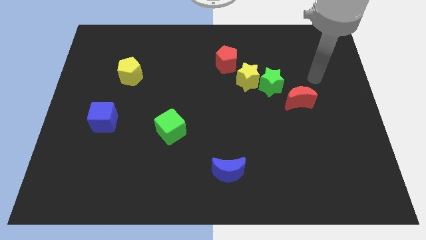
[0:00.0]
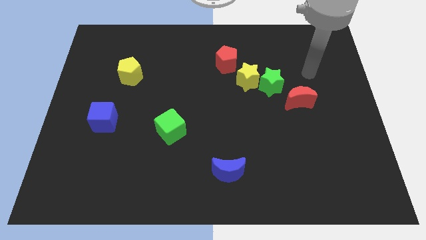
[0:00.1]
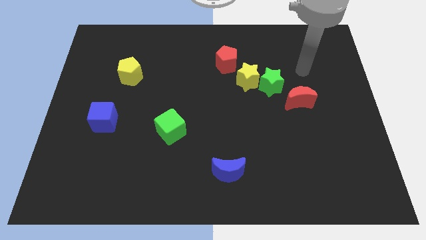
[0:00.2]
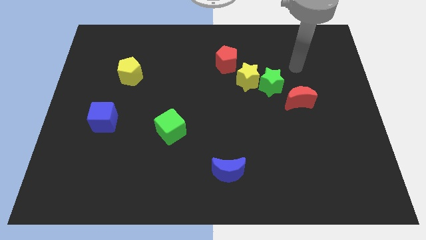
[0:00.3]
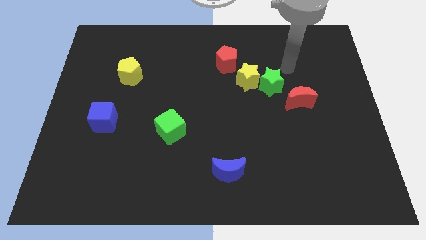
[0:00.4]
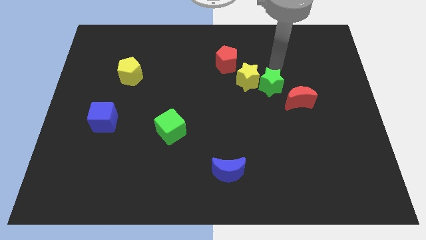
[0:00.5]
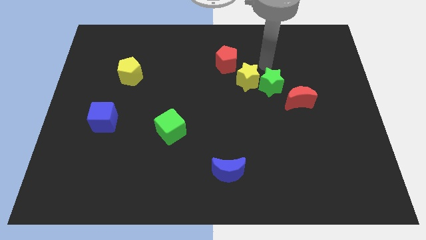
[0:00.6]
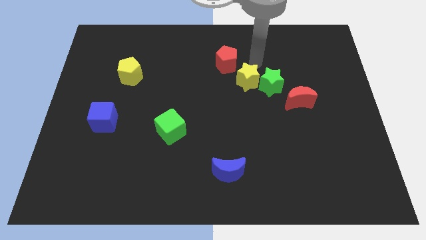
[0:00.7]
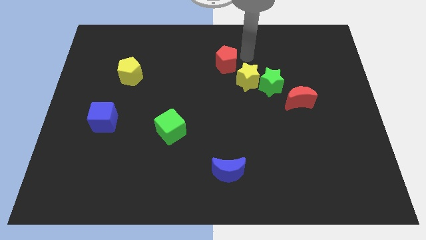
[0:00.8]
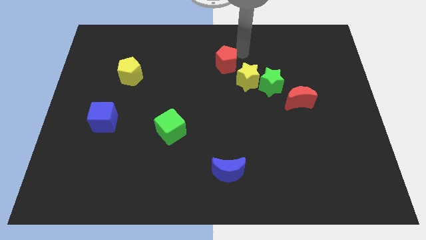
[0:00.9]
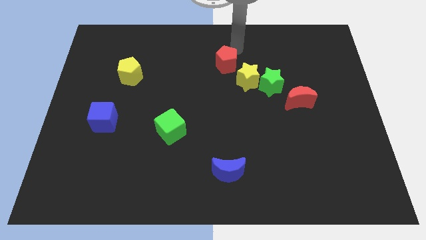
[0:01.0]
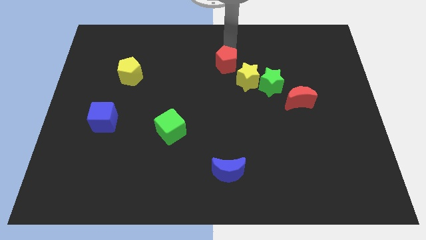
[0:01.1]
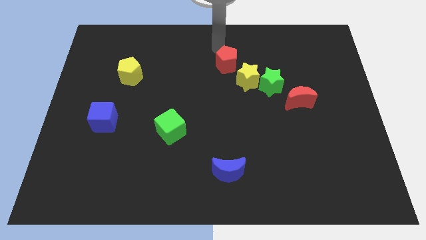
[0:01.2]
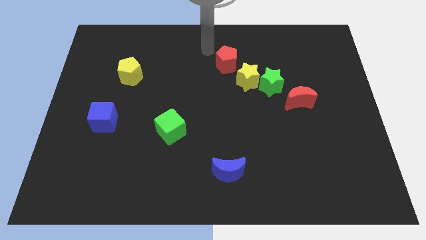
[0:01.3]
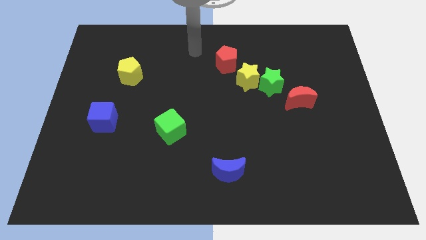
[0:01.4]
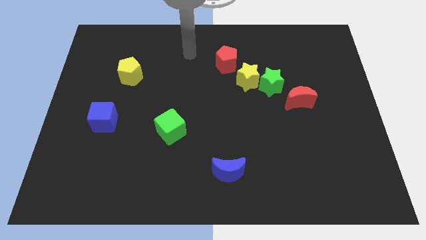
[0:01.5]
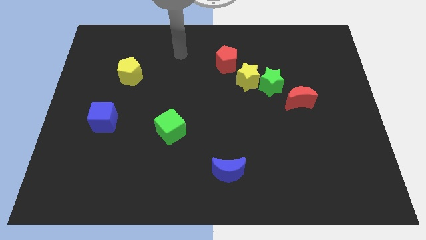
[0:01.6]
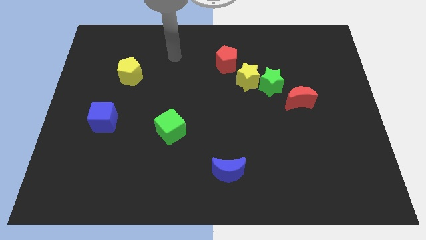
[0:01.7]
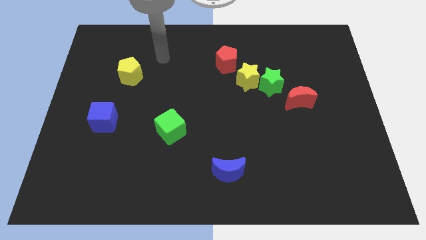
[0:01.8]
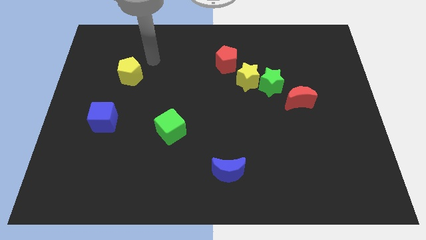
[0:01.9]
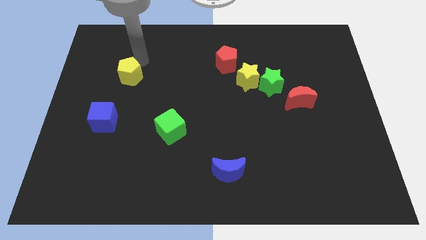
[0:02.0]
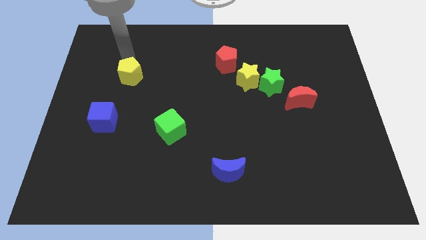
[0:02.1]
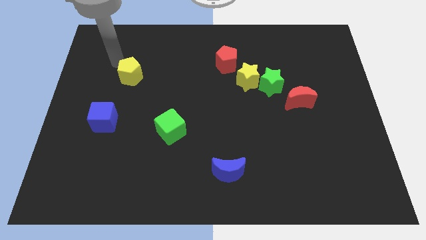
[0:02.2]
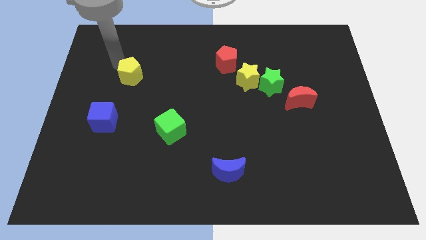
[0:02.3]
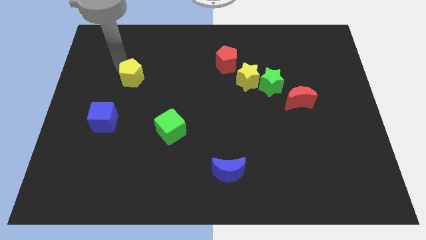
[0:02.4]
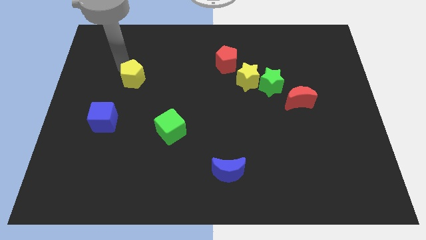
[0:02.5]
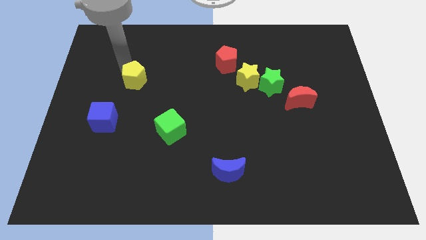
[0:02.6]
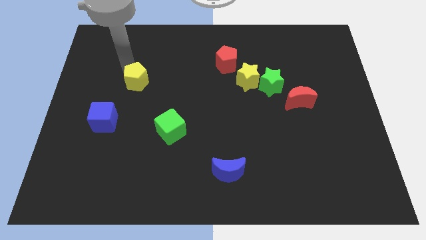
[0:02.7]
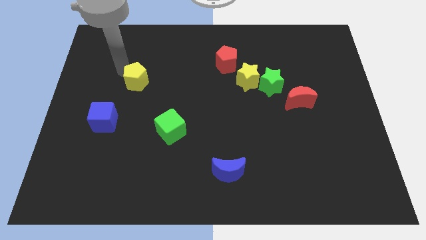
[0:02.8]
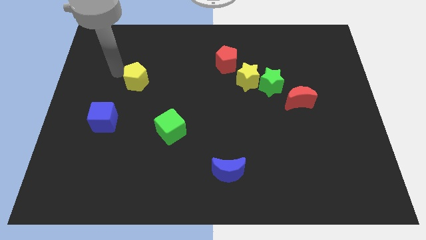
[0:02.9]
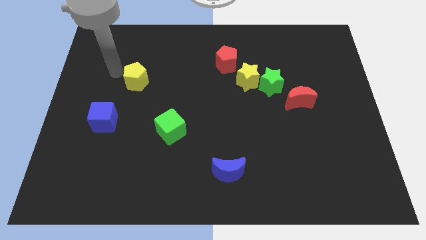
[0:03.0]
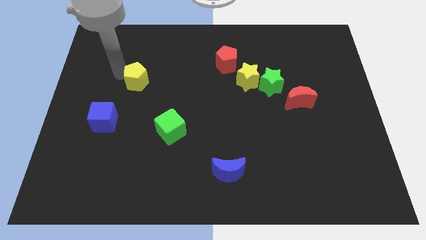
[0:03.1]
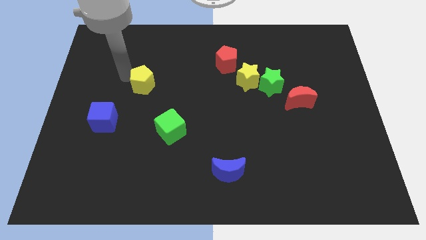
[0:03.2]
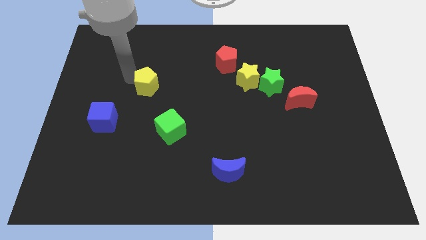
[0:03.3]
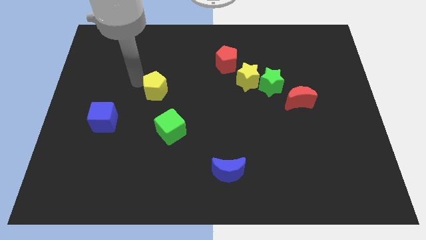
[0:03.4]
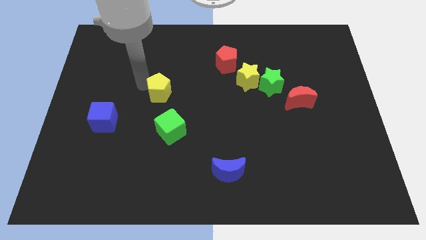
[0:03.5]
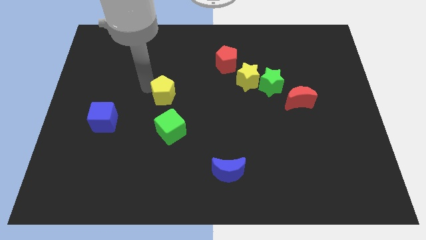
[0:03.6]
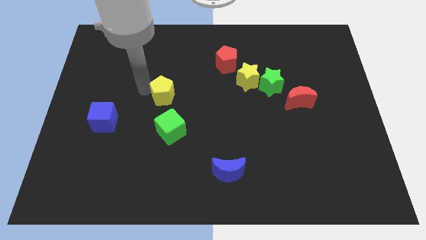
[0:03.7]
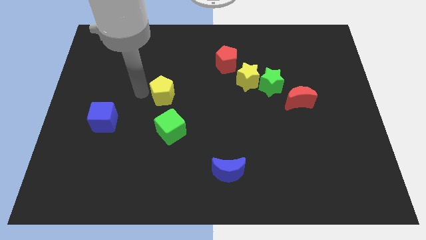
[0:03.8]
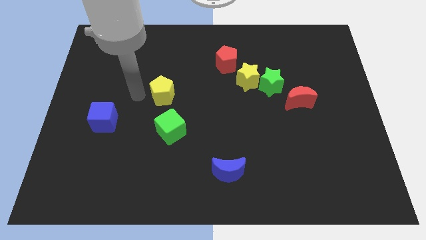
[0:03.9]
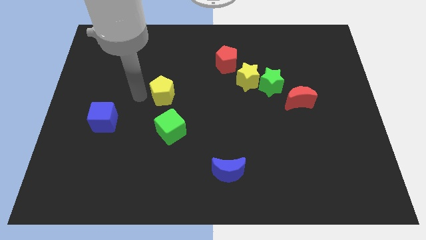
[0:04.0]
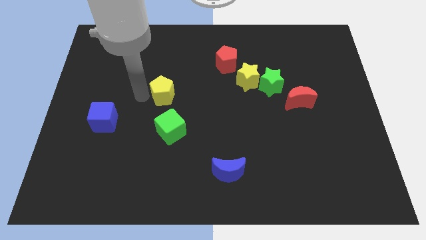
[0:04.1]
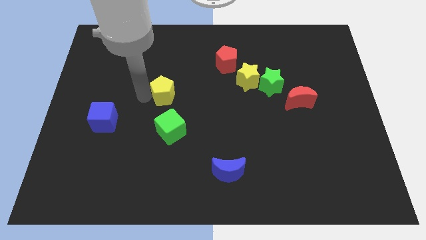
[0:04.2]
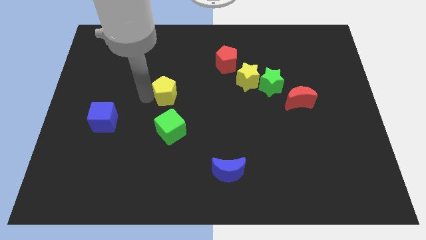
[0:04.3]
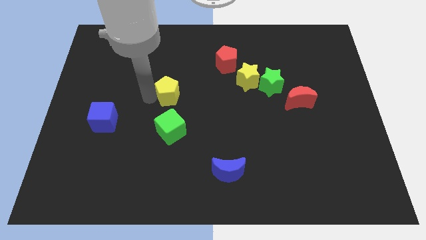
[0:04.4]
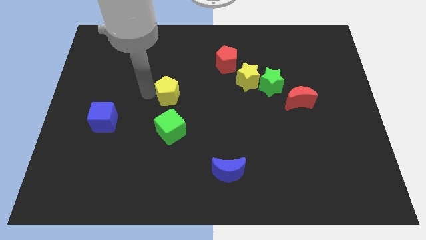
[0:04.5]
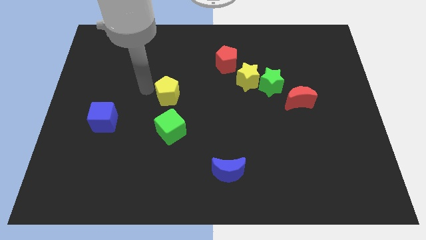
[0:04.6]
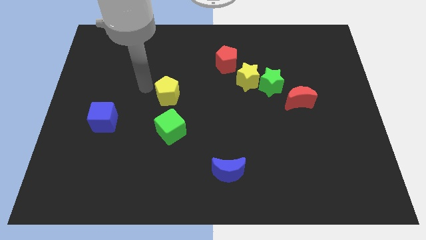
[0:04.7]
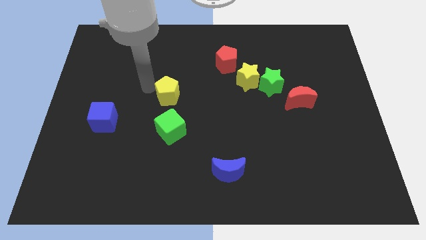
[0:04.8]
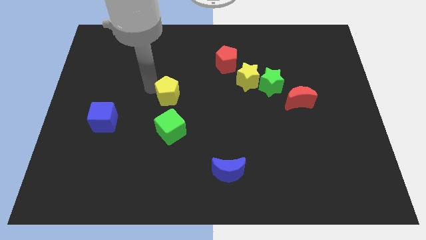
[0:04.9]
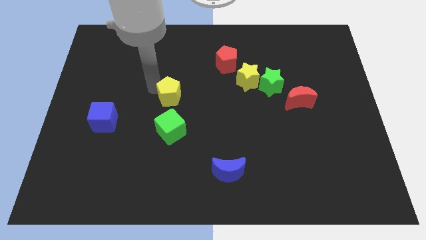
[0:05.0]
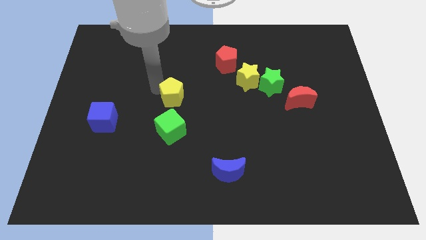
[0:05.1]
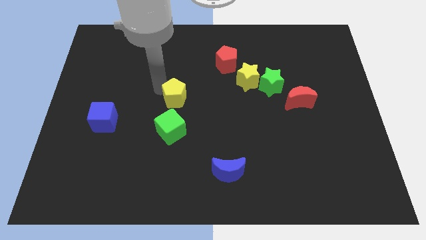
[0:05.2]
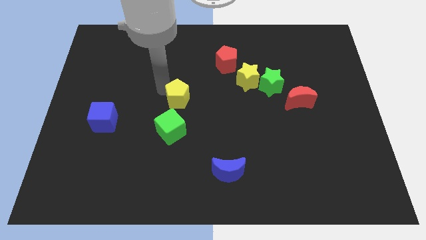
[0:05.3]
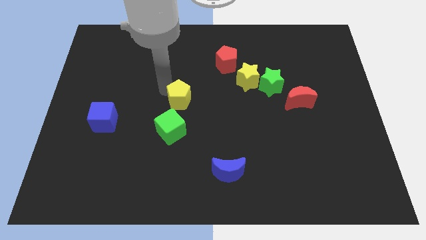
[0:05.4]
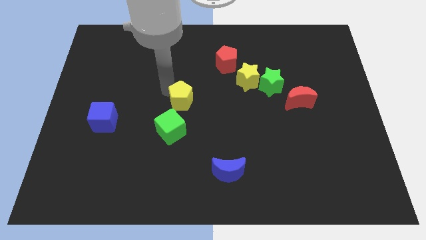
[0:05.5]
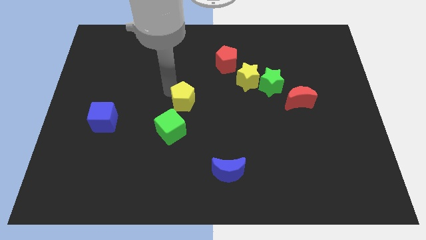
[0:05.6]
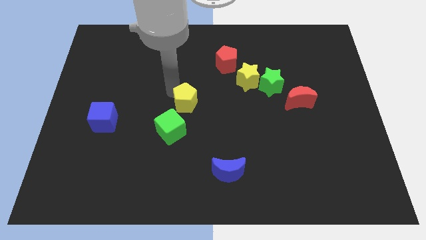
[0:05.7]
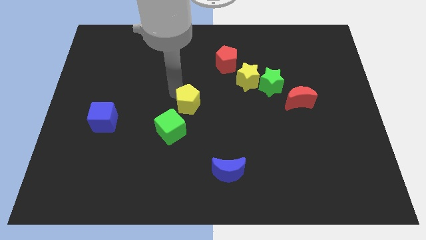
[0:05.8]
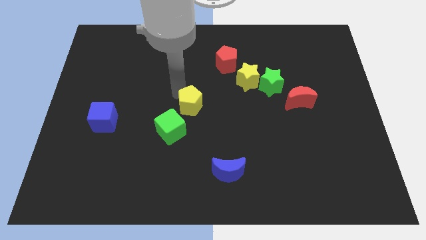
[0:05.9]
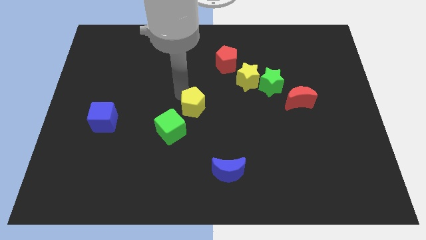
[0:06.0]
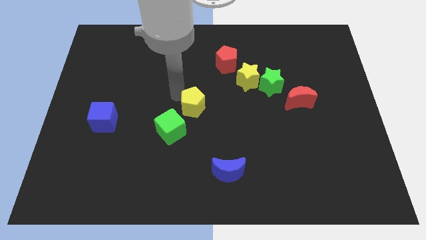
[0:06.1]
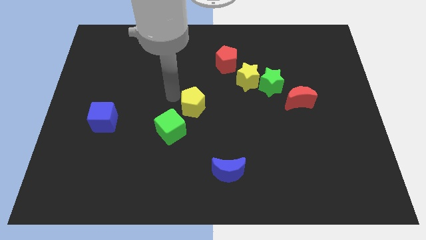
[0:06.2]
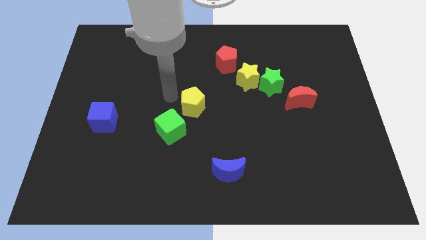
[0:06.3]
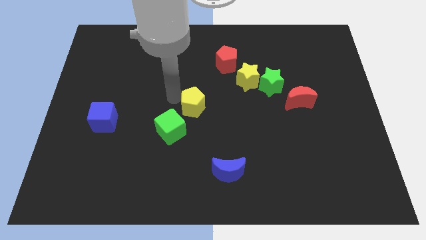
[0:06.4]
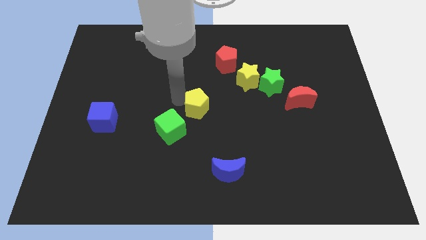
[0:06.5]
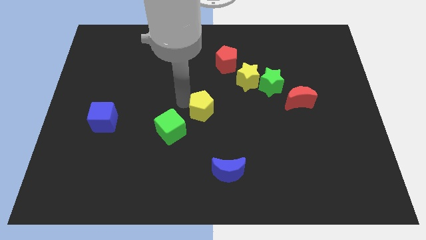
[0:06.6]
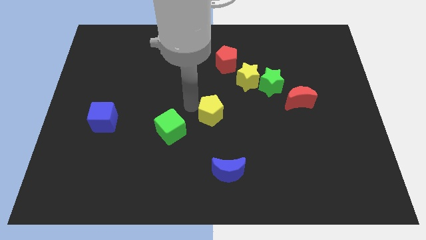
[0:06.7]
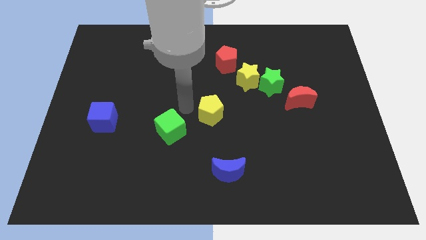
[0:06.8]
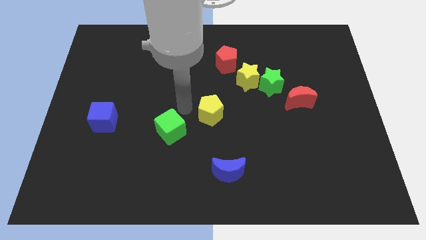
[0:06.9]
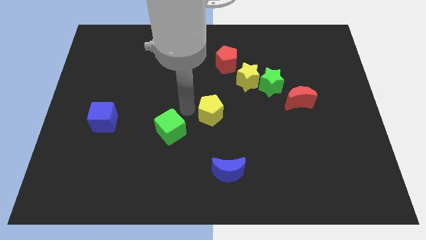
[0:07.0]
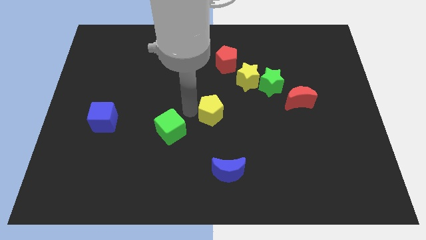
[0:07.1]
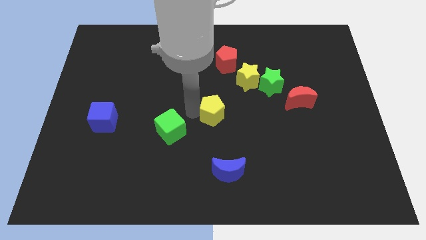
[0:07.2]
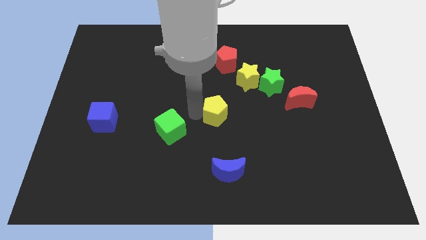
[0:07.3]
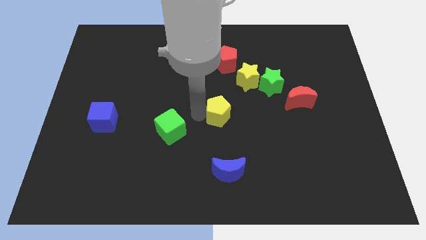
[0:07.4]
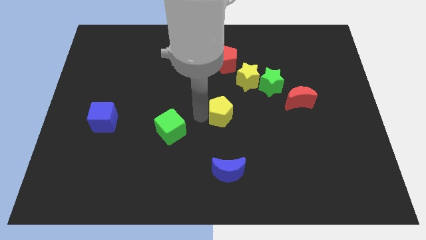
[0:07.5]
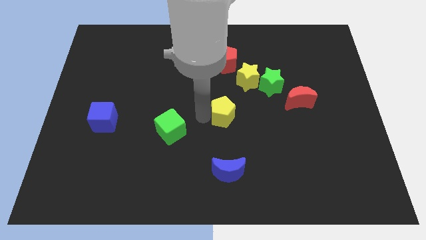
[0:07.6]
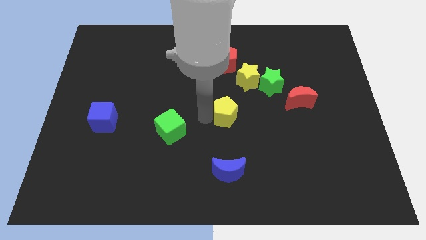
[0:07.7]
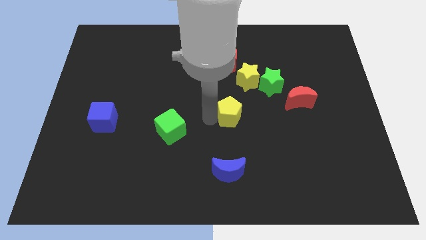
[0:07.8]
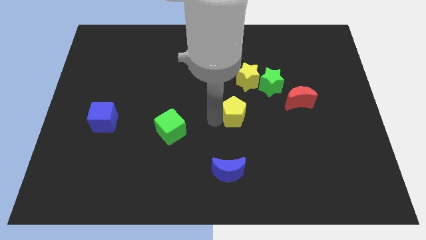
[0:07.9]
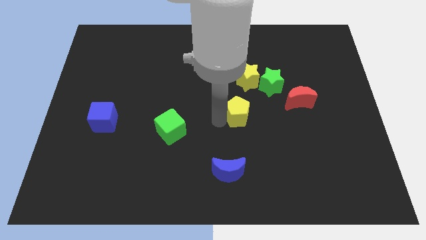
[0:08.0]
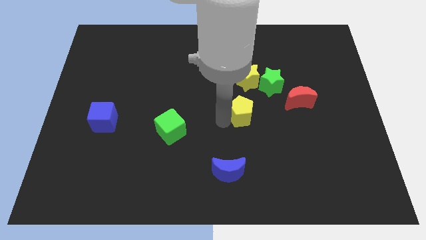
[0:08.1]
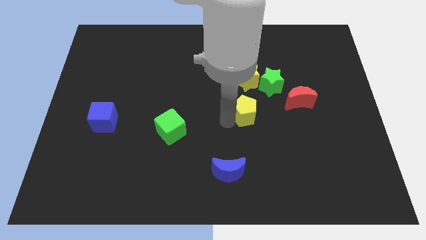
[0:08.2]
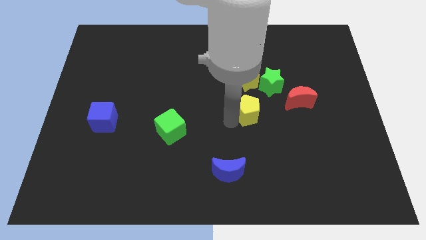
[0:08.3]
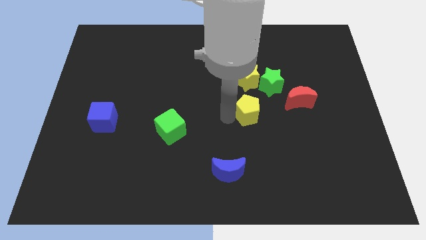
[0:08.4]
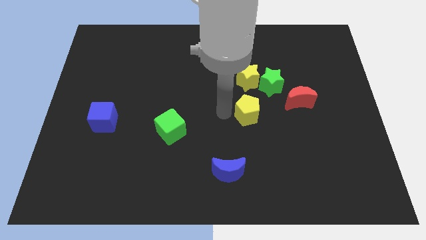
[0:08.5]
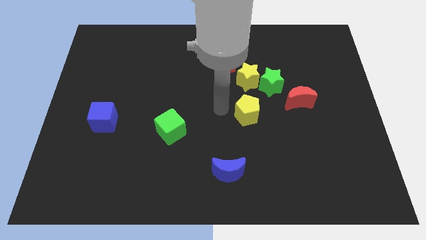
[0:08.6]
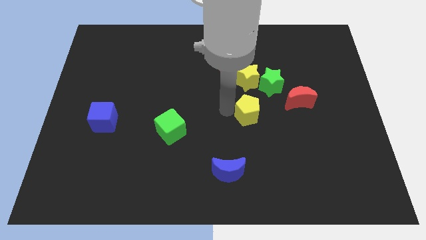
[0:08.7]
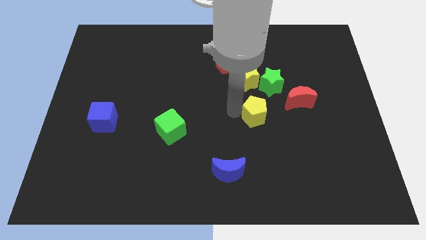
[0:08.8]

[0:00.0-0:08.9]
move the yellow pentagon to the bottom of the green star
